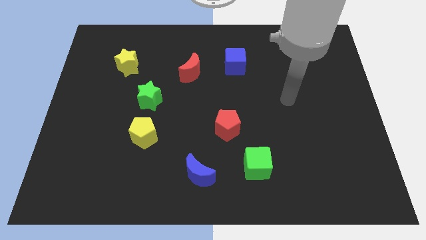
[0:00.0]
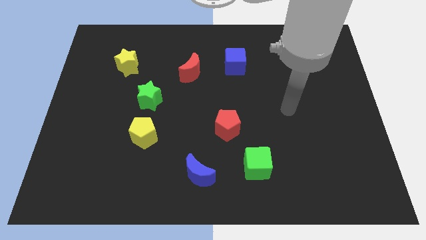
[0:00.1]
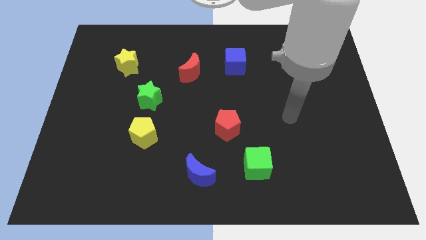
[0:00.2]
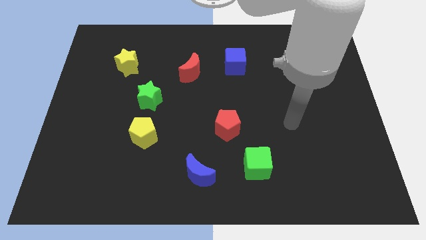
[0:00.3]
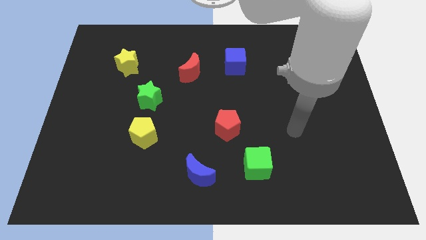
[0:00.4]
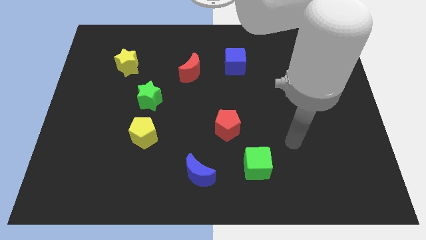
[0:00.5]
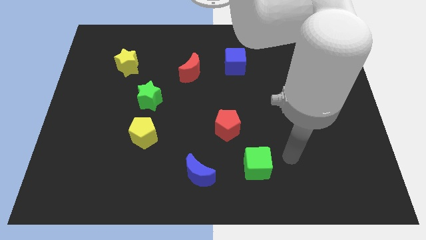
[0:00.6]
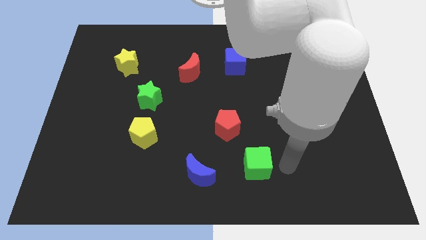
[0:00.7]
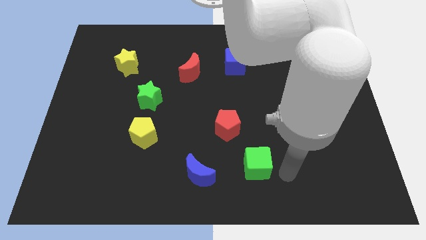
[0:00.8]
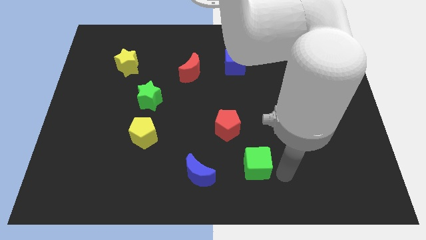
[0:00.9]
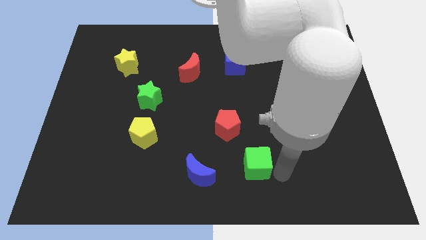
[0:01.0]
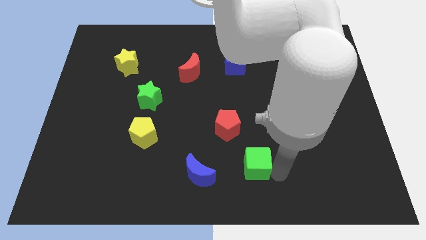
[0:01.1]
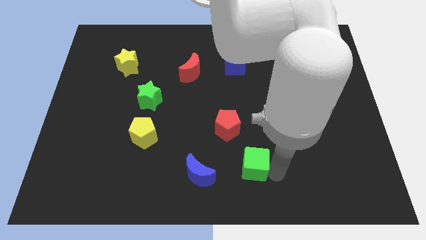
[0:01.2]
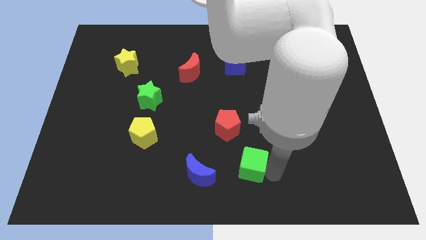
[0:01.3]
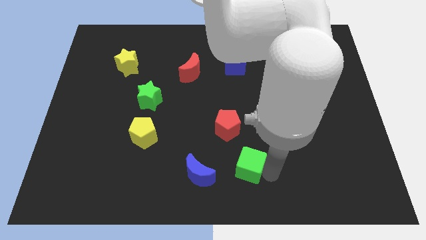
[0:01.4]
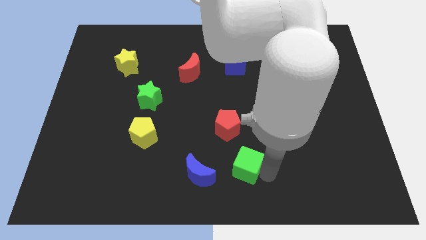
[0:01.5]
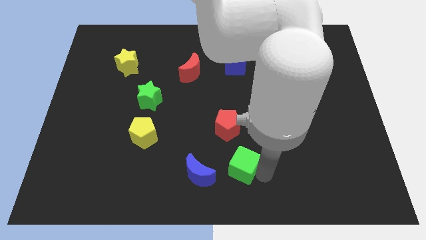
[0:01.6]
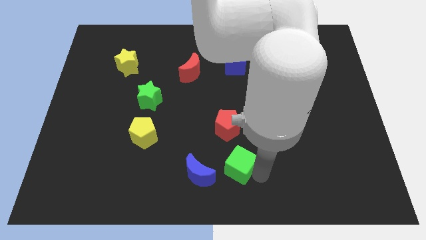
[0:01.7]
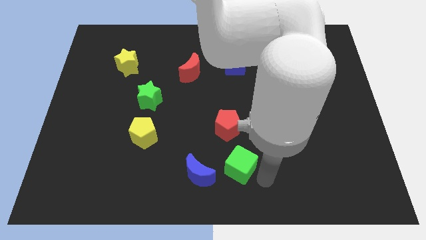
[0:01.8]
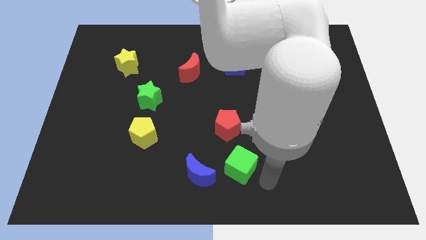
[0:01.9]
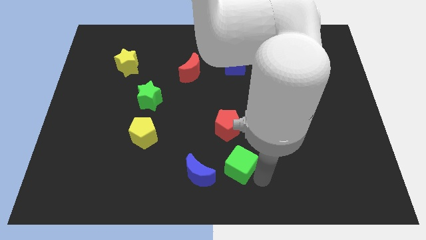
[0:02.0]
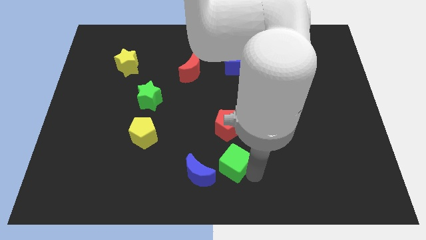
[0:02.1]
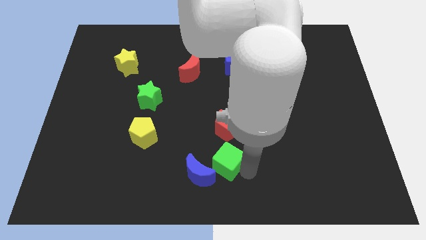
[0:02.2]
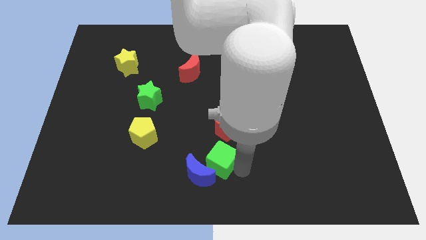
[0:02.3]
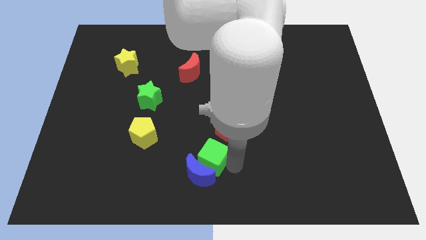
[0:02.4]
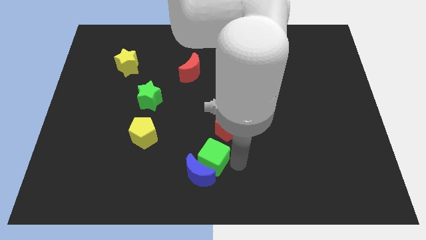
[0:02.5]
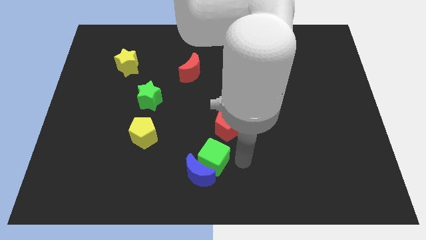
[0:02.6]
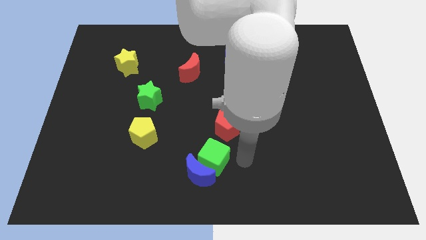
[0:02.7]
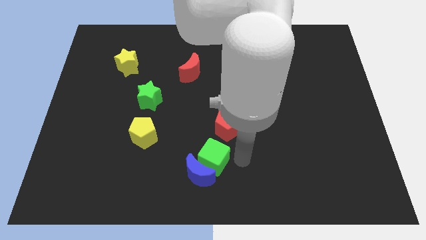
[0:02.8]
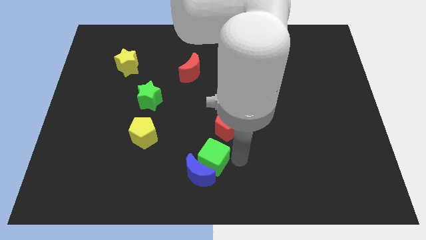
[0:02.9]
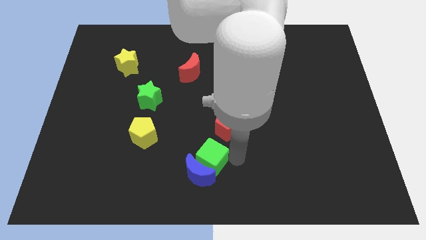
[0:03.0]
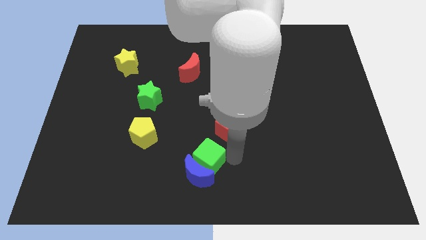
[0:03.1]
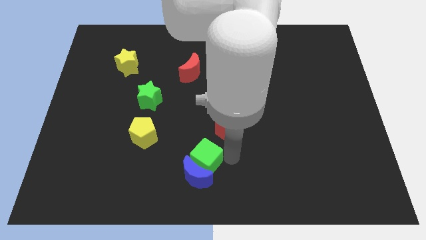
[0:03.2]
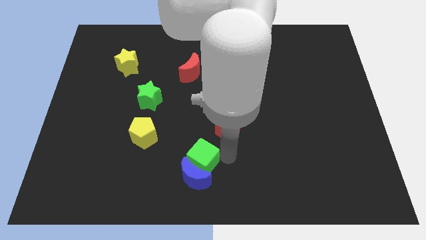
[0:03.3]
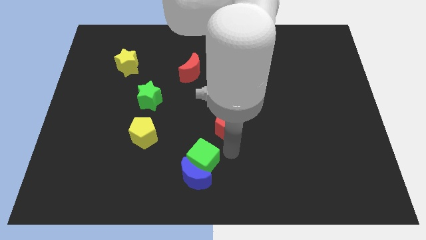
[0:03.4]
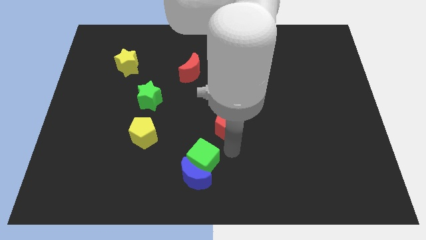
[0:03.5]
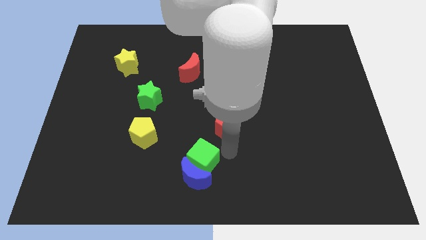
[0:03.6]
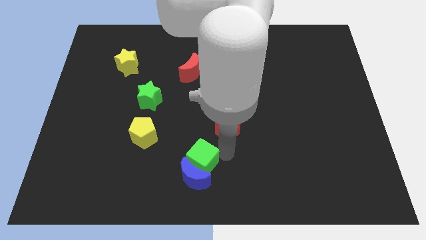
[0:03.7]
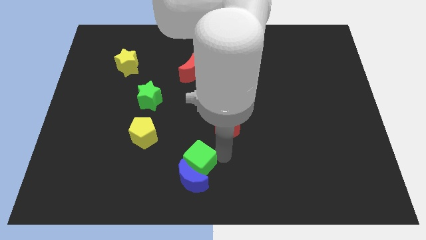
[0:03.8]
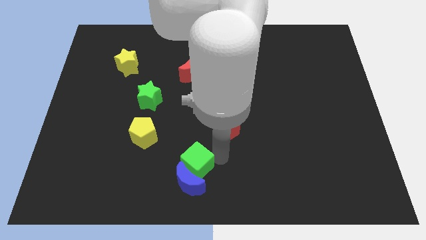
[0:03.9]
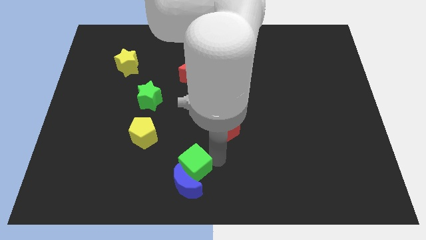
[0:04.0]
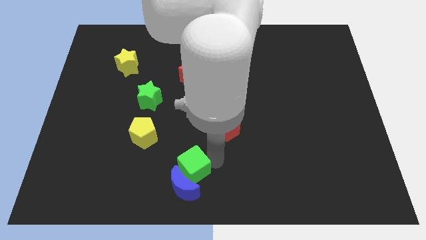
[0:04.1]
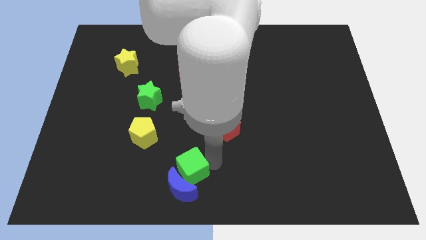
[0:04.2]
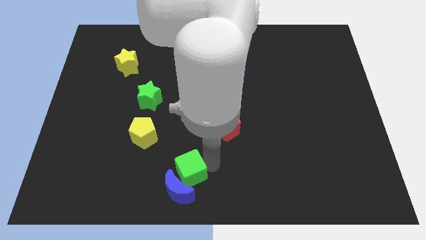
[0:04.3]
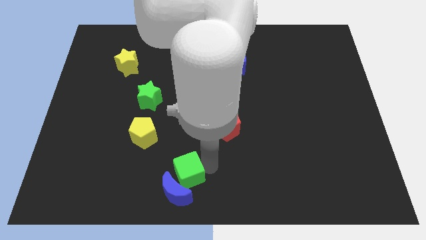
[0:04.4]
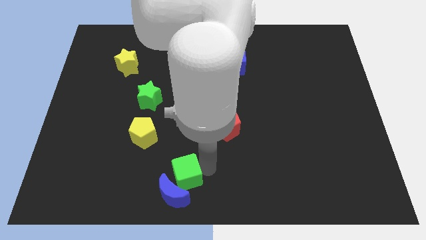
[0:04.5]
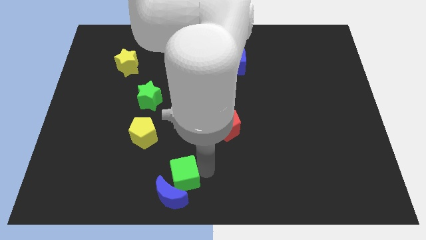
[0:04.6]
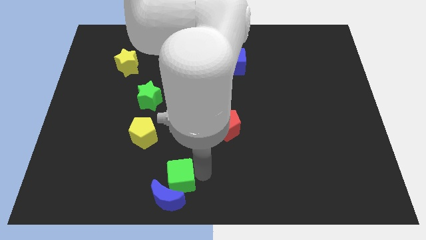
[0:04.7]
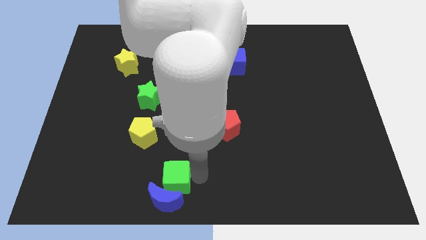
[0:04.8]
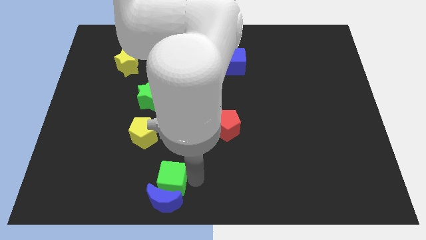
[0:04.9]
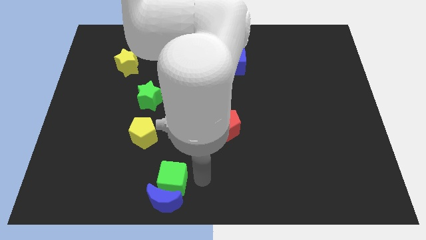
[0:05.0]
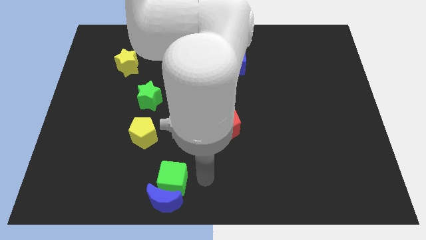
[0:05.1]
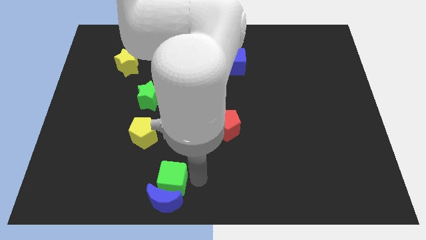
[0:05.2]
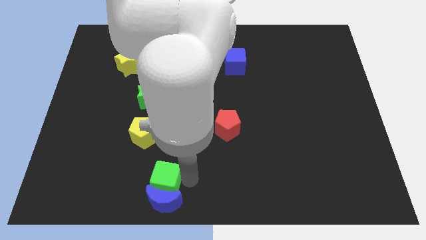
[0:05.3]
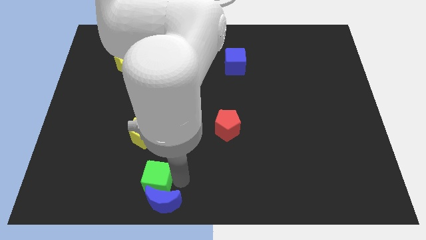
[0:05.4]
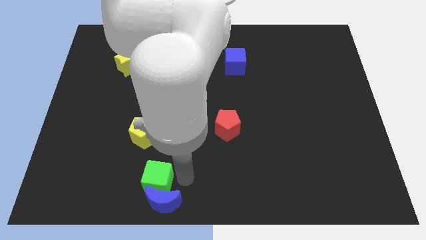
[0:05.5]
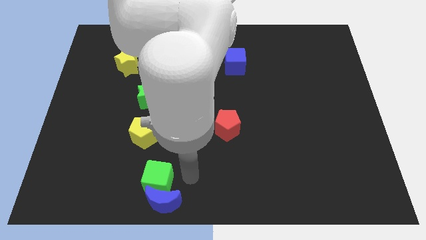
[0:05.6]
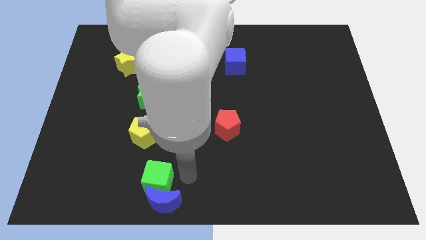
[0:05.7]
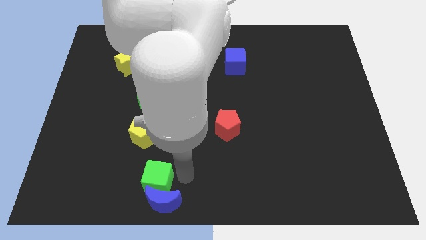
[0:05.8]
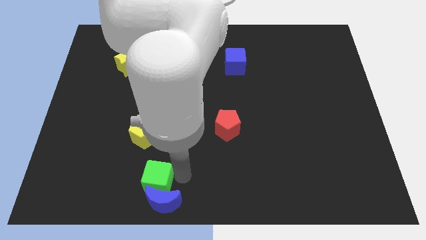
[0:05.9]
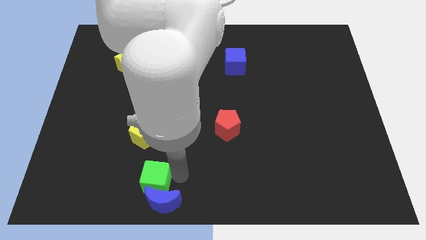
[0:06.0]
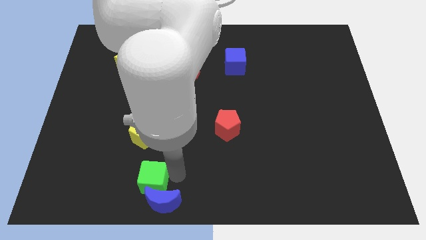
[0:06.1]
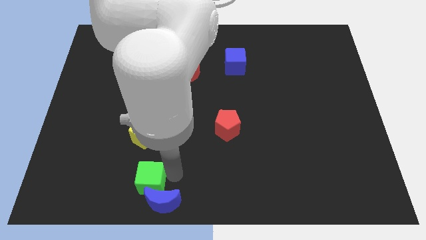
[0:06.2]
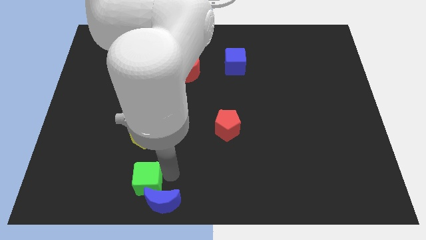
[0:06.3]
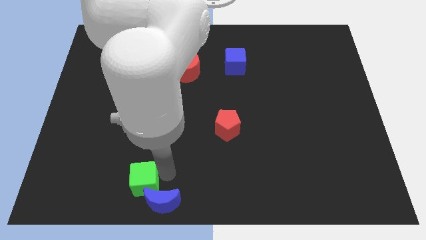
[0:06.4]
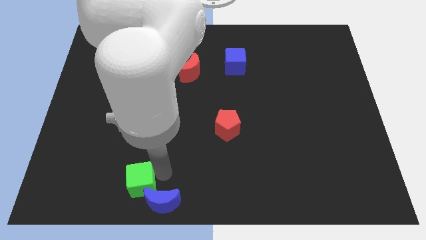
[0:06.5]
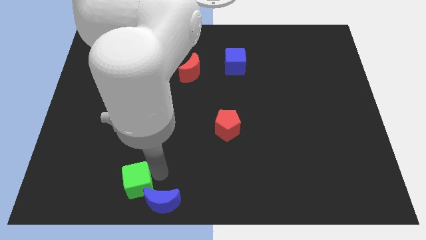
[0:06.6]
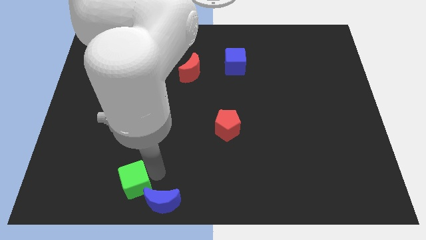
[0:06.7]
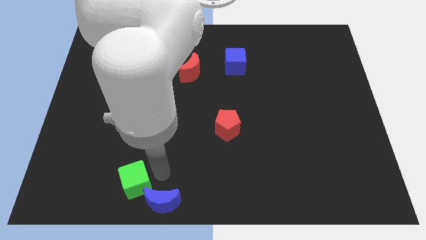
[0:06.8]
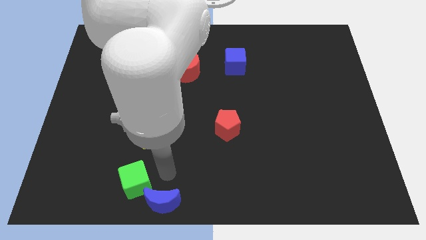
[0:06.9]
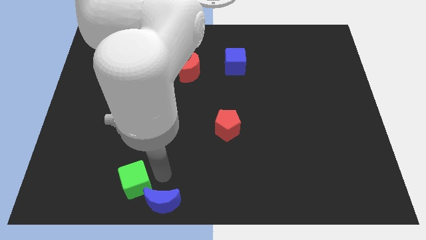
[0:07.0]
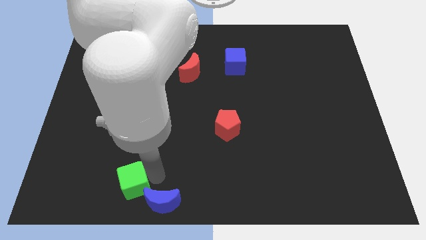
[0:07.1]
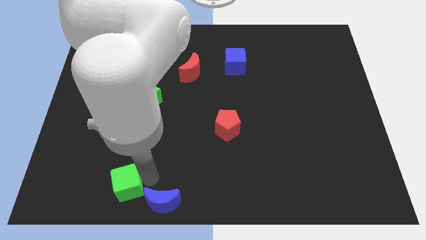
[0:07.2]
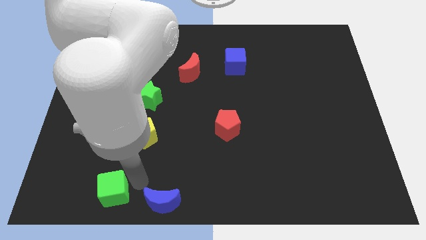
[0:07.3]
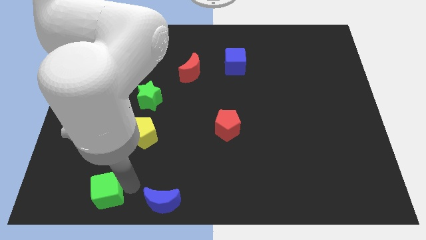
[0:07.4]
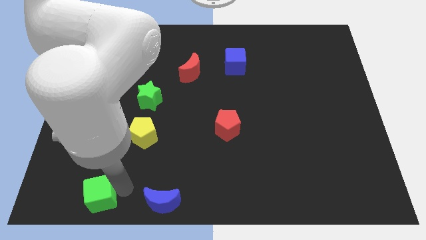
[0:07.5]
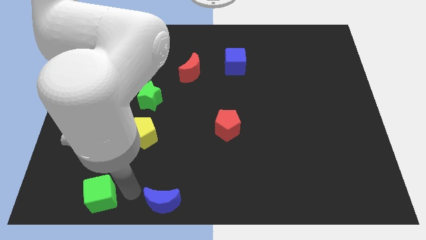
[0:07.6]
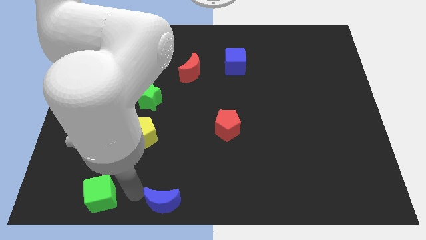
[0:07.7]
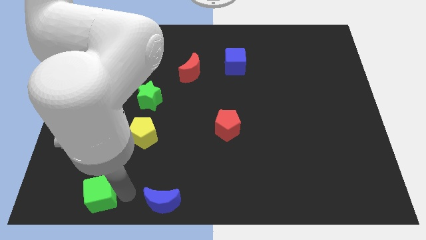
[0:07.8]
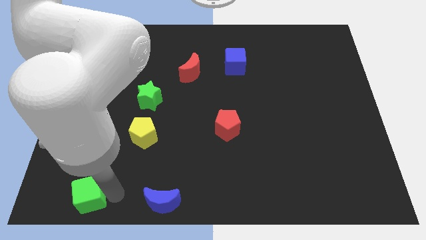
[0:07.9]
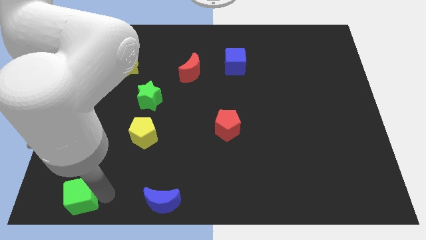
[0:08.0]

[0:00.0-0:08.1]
put the green cube to the bottom left corner
